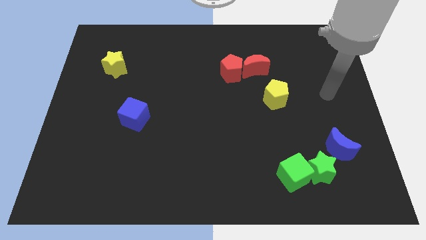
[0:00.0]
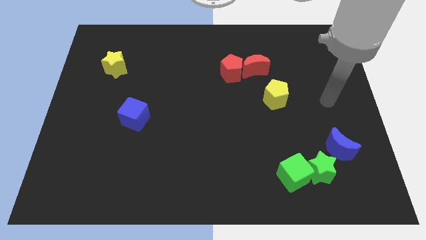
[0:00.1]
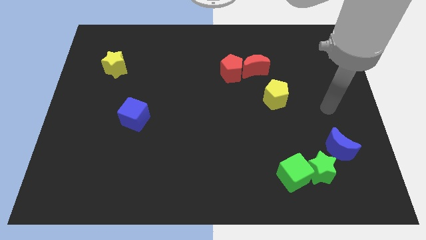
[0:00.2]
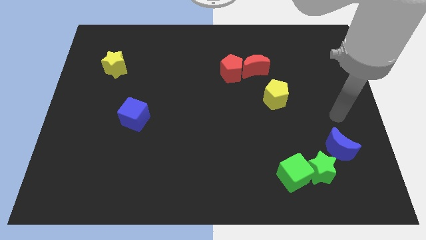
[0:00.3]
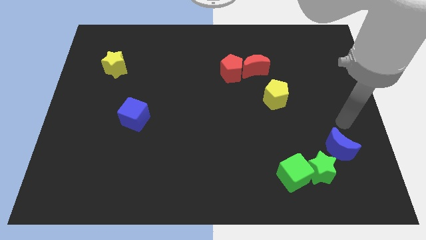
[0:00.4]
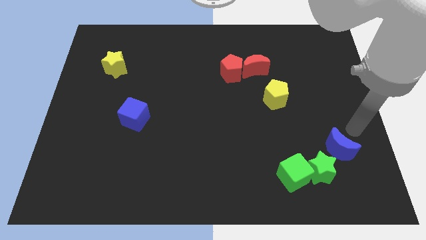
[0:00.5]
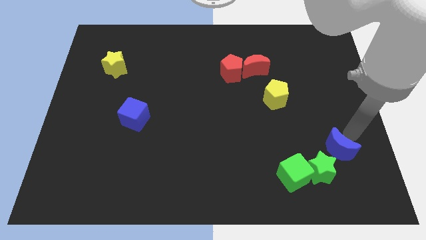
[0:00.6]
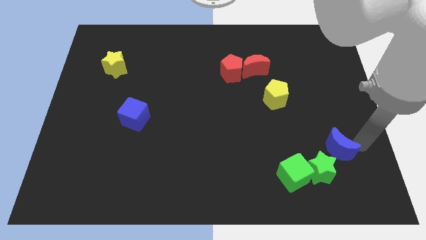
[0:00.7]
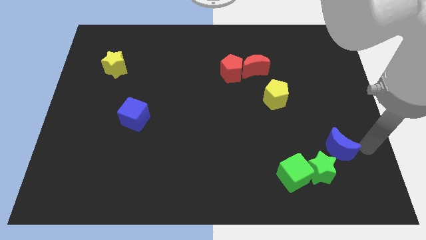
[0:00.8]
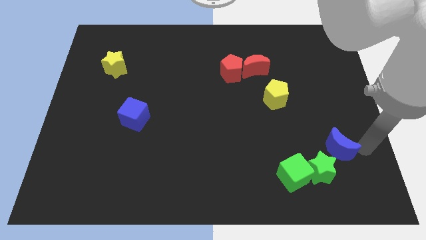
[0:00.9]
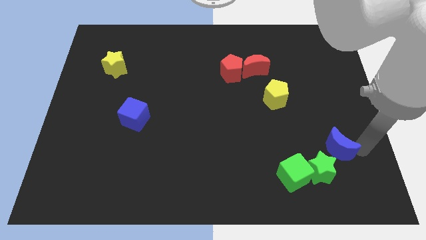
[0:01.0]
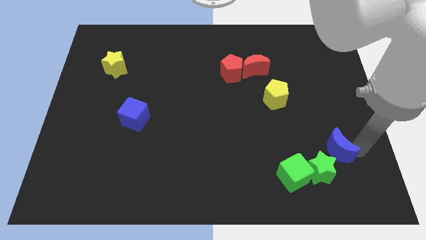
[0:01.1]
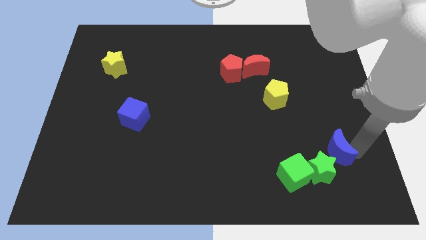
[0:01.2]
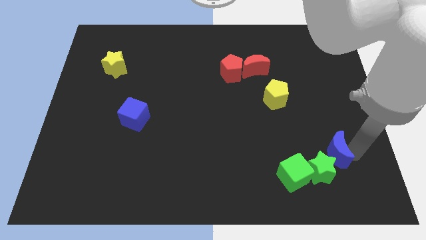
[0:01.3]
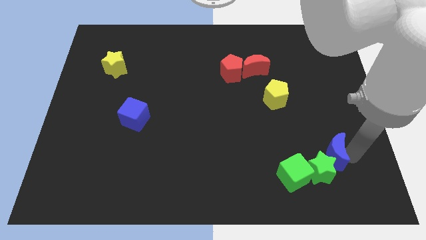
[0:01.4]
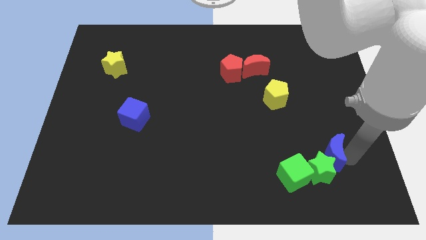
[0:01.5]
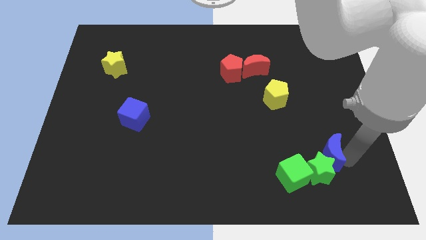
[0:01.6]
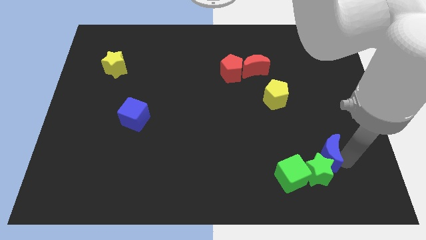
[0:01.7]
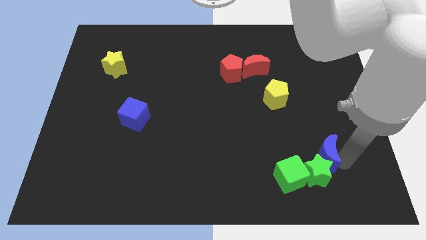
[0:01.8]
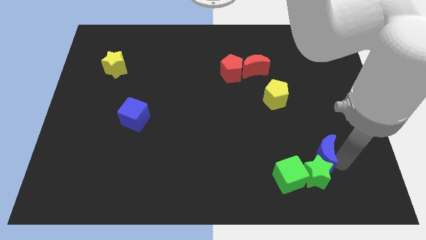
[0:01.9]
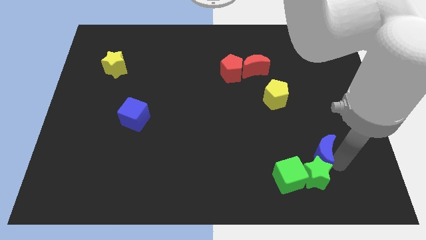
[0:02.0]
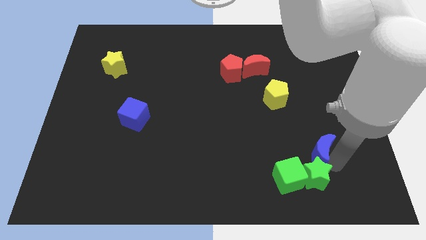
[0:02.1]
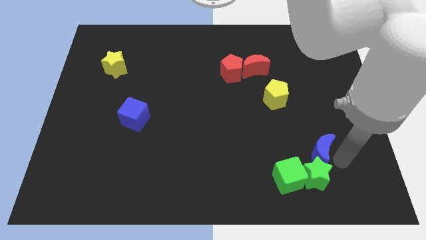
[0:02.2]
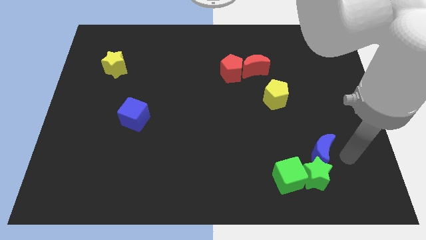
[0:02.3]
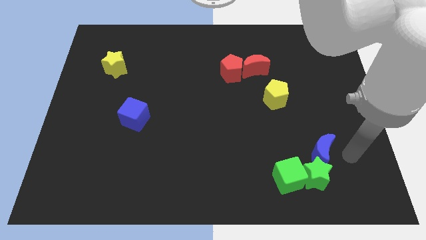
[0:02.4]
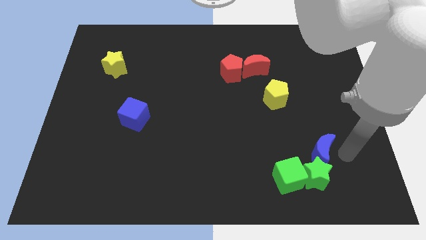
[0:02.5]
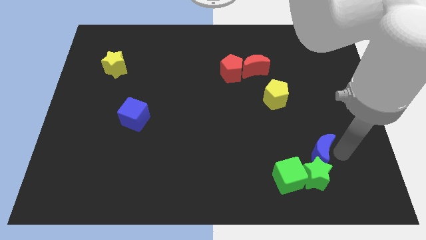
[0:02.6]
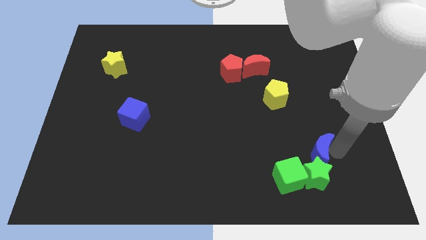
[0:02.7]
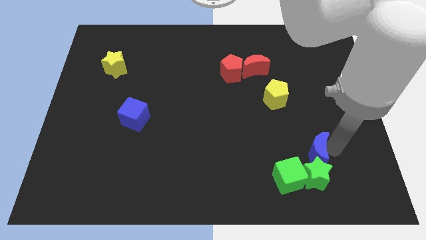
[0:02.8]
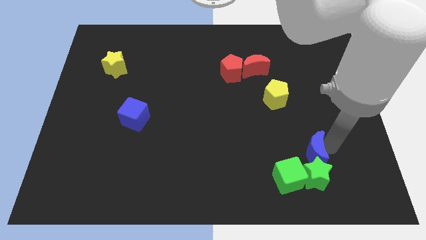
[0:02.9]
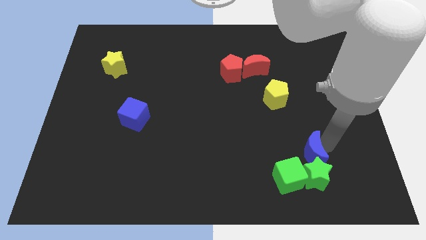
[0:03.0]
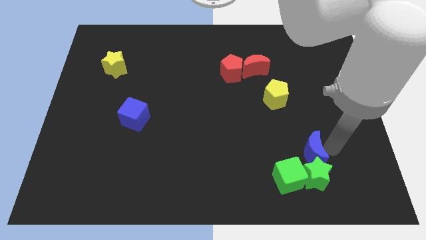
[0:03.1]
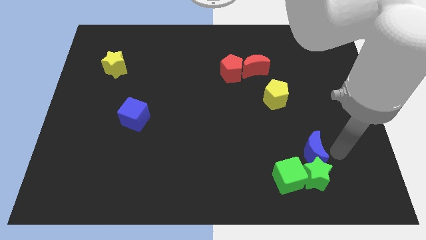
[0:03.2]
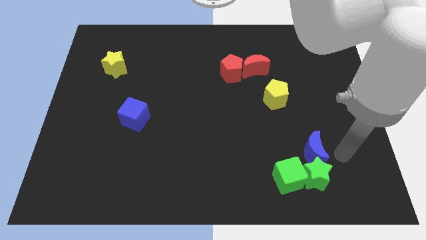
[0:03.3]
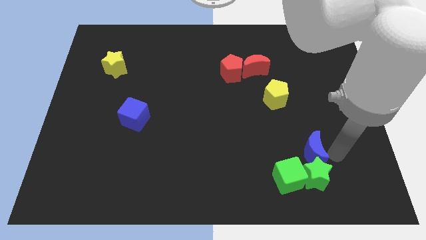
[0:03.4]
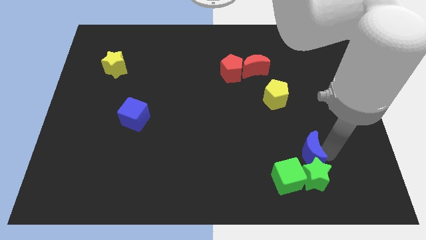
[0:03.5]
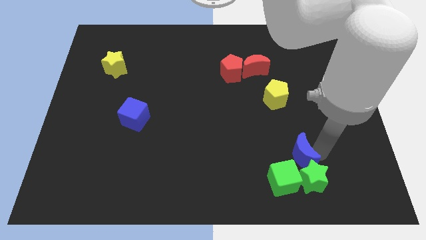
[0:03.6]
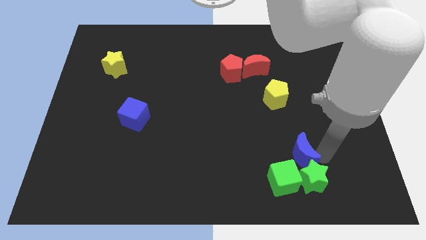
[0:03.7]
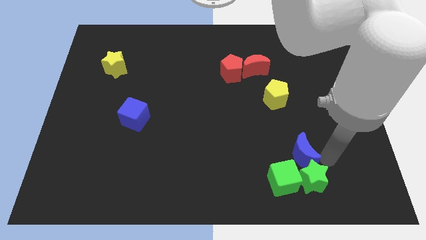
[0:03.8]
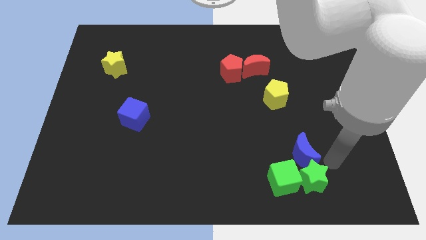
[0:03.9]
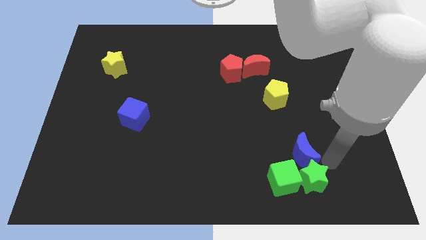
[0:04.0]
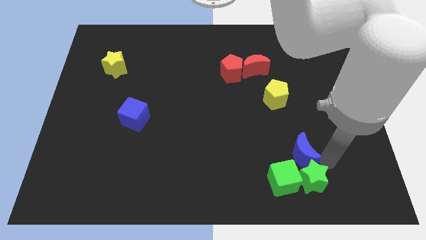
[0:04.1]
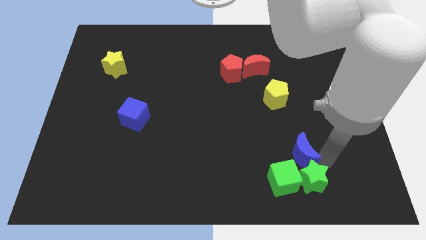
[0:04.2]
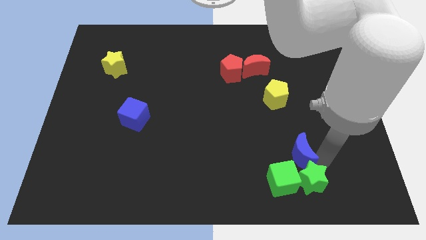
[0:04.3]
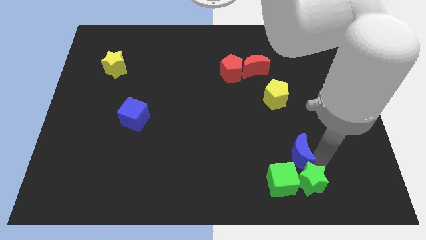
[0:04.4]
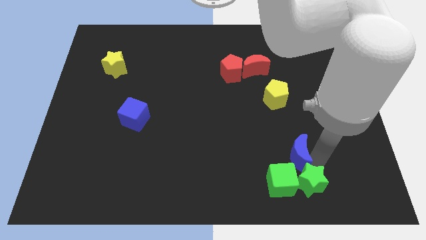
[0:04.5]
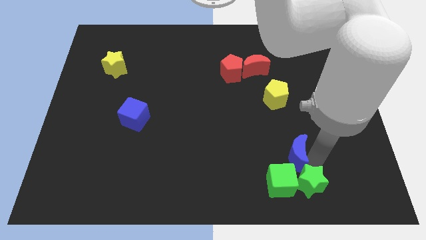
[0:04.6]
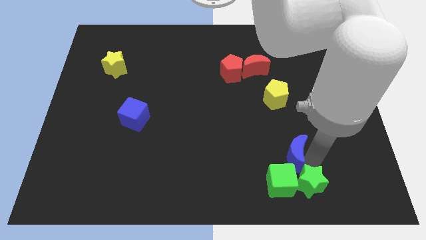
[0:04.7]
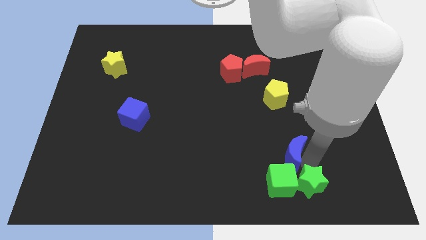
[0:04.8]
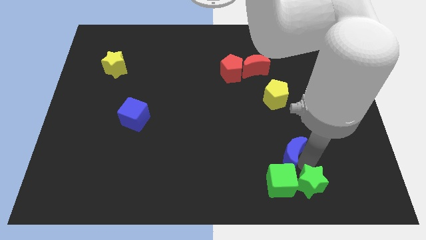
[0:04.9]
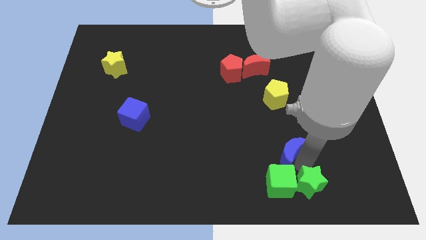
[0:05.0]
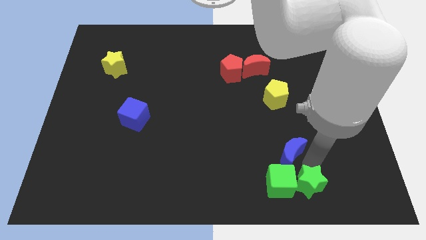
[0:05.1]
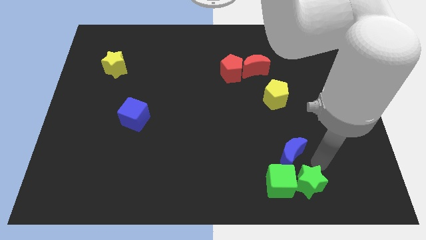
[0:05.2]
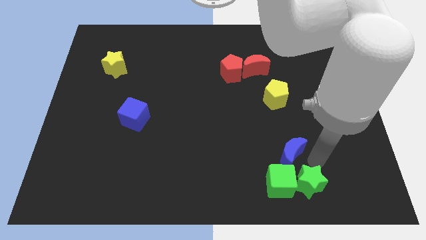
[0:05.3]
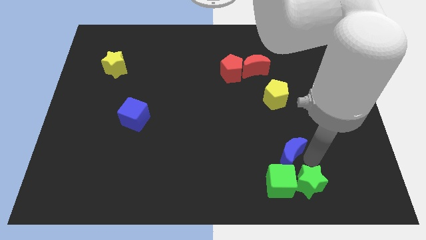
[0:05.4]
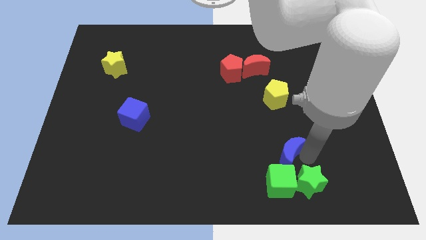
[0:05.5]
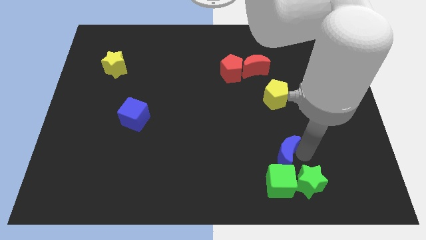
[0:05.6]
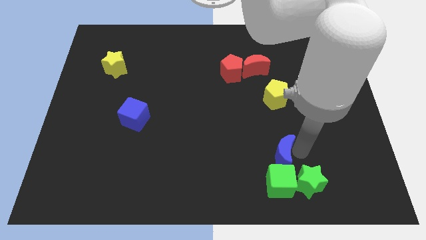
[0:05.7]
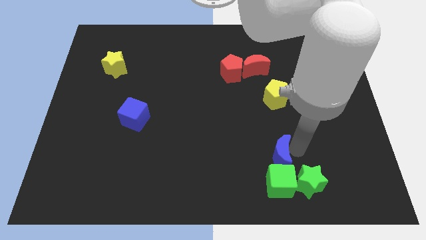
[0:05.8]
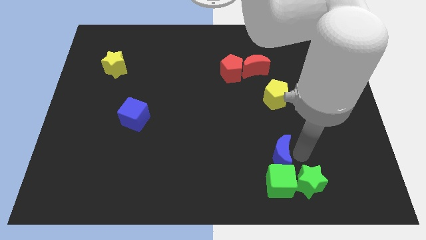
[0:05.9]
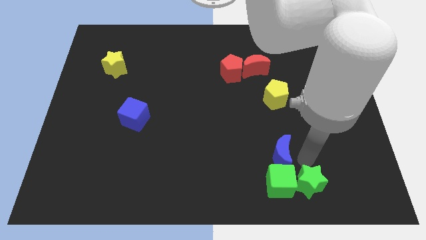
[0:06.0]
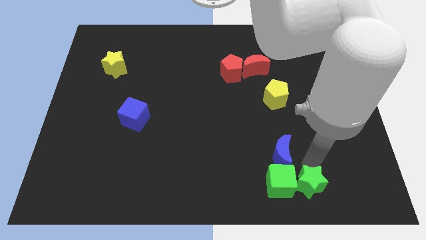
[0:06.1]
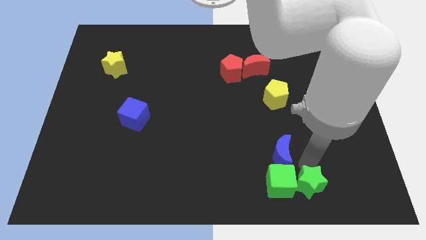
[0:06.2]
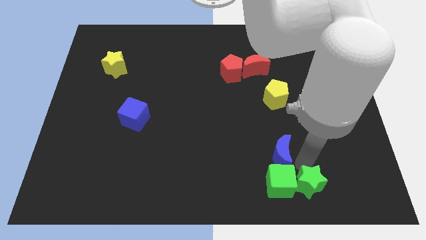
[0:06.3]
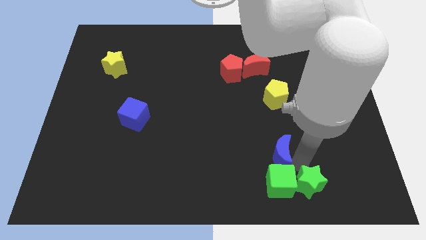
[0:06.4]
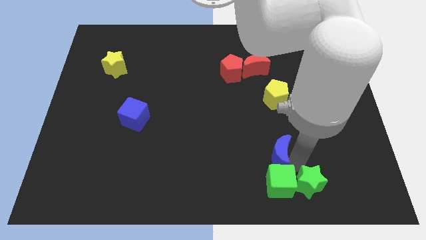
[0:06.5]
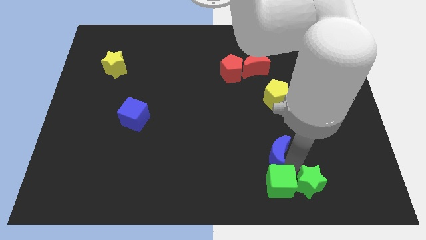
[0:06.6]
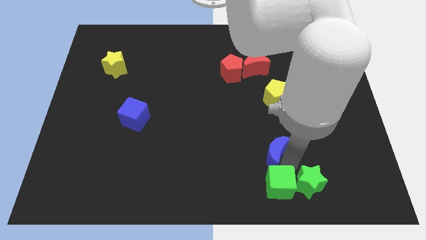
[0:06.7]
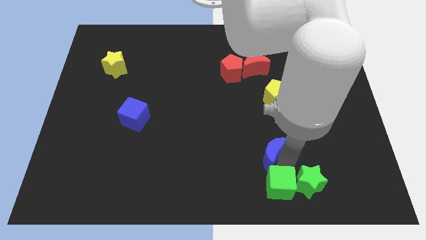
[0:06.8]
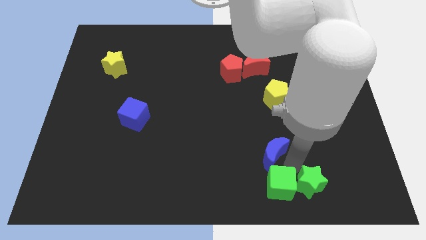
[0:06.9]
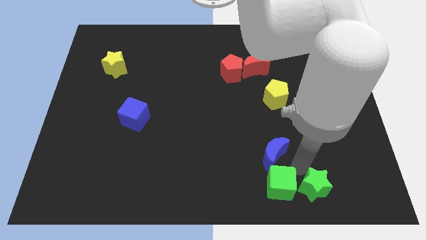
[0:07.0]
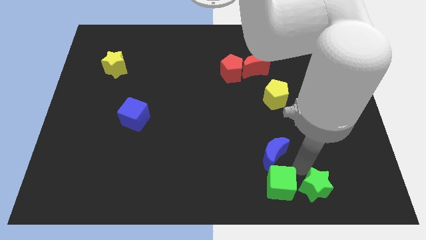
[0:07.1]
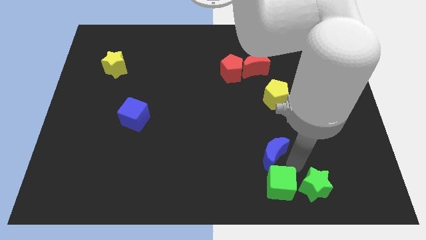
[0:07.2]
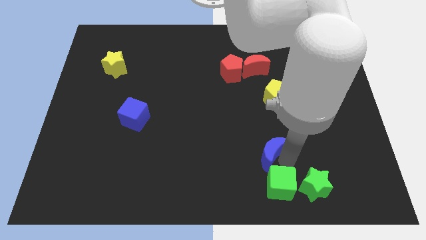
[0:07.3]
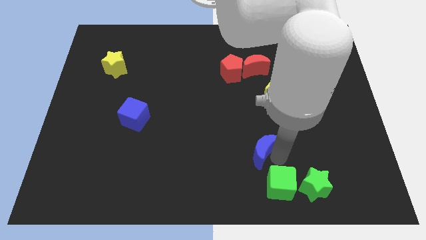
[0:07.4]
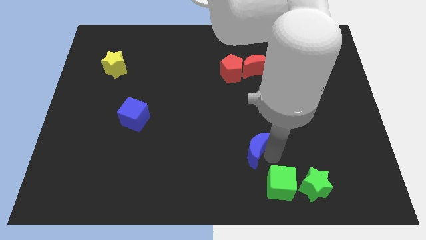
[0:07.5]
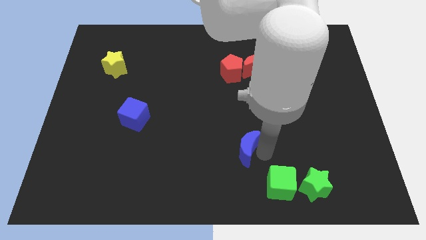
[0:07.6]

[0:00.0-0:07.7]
slide the blue moon left
